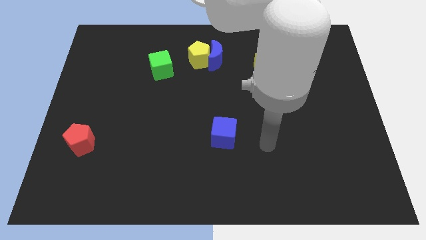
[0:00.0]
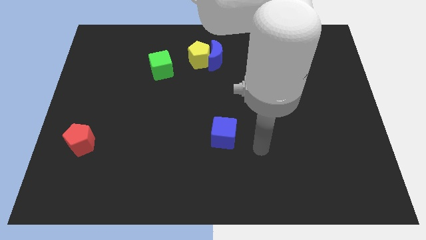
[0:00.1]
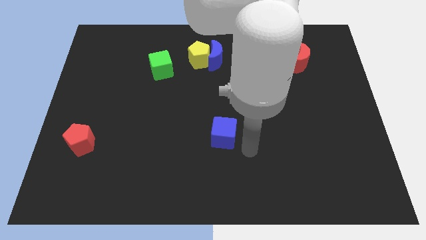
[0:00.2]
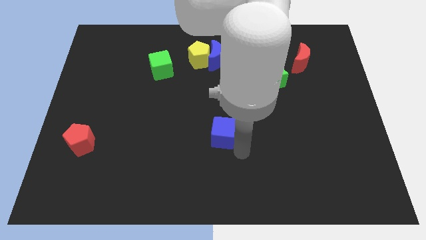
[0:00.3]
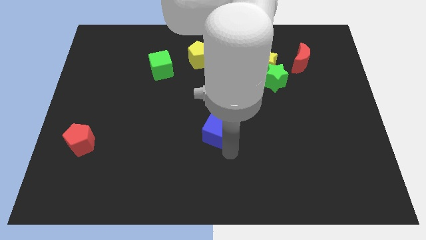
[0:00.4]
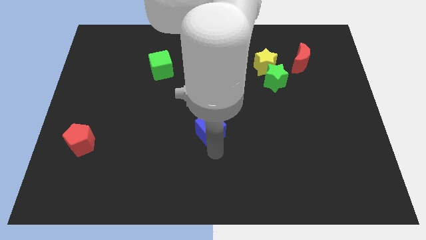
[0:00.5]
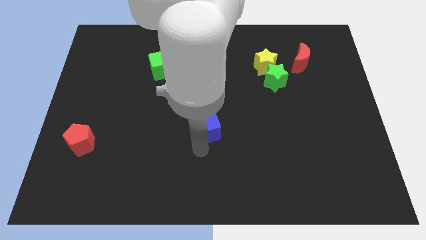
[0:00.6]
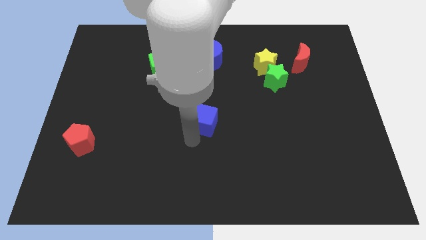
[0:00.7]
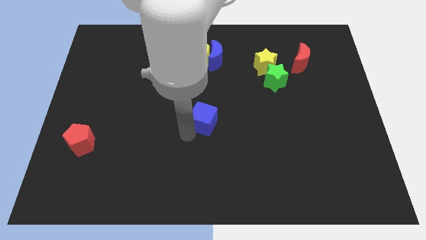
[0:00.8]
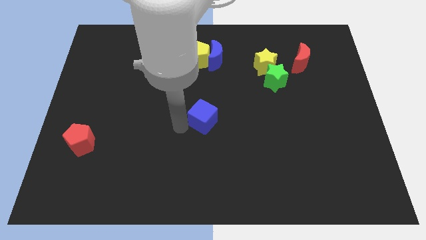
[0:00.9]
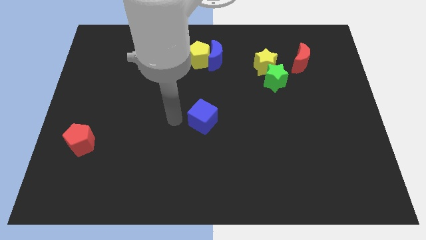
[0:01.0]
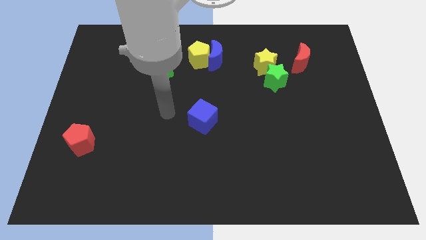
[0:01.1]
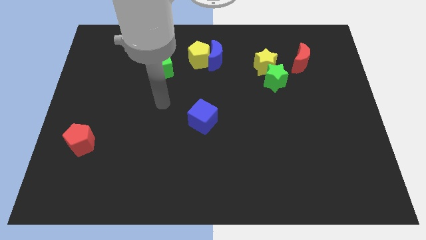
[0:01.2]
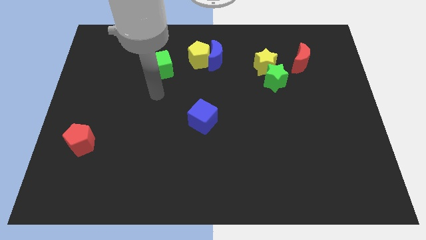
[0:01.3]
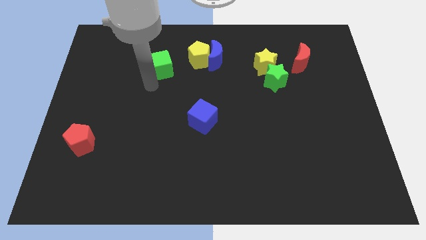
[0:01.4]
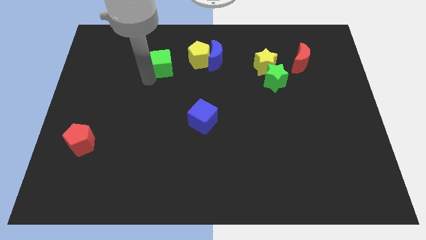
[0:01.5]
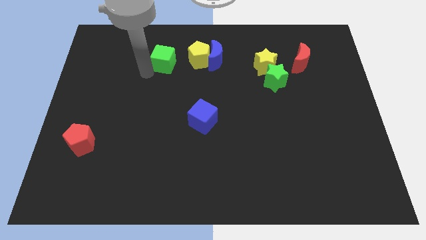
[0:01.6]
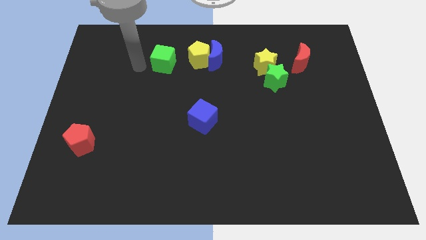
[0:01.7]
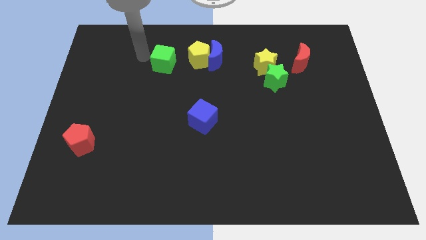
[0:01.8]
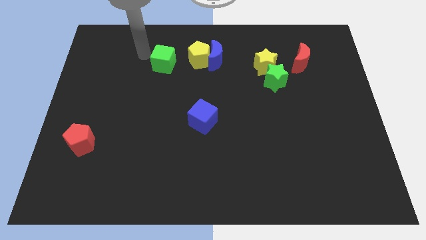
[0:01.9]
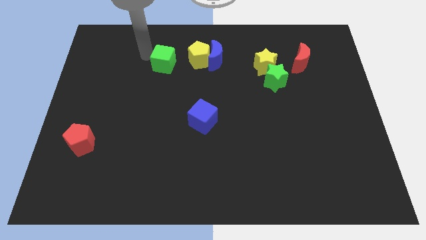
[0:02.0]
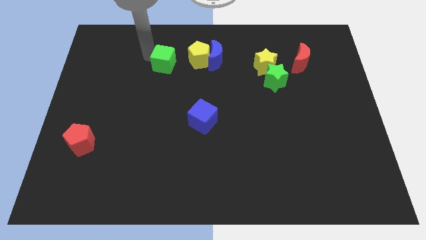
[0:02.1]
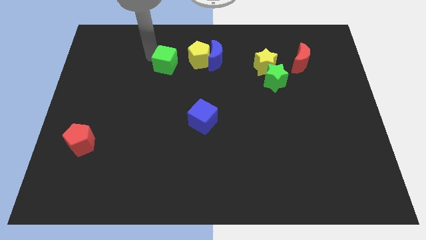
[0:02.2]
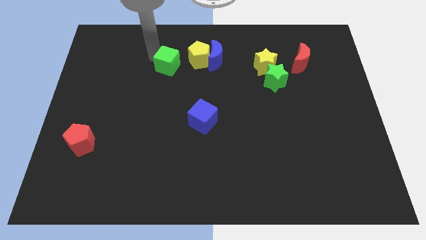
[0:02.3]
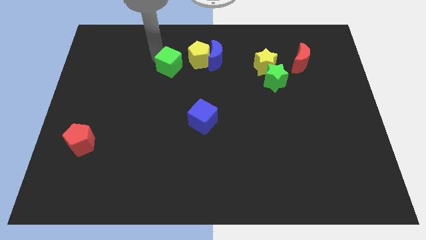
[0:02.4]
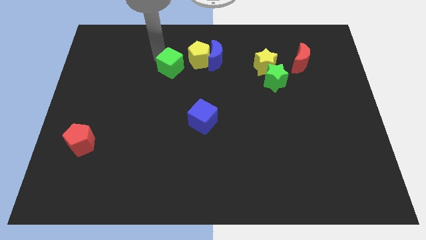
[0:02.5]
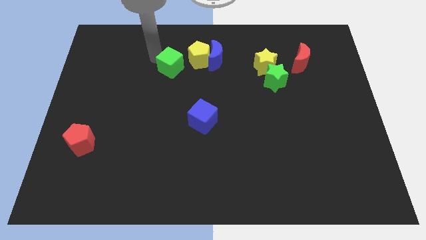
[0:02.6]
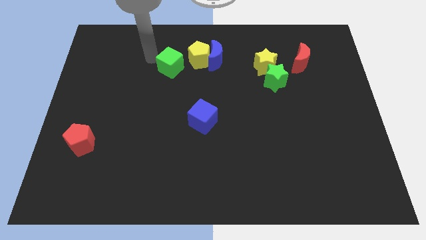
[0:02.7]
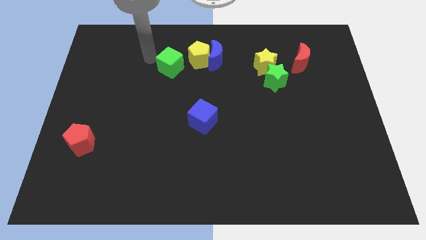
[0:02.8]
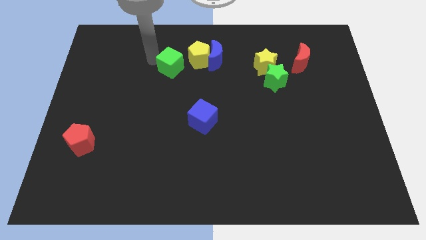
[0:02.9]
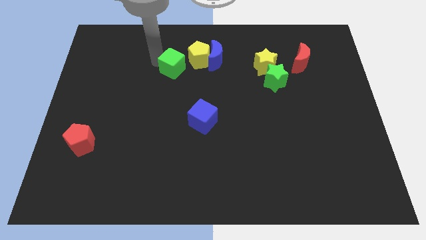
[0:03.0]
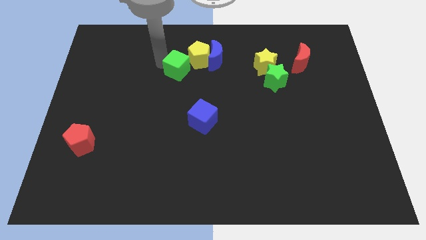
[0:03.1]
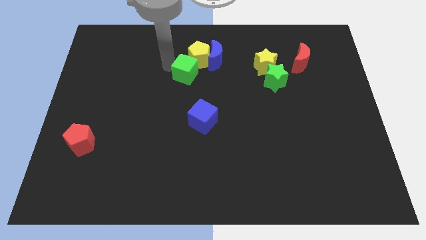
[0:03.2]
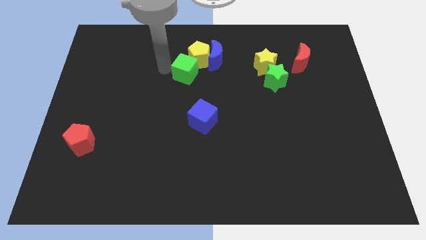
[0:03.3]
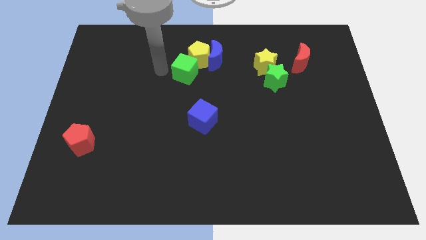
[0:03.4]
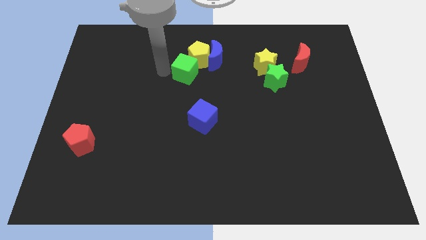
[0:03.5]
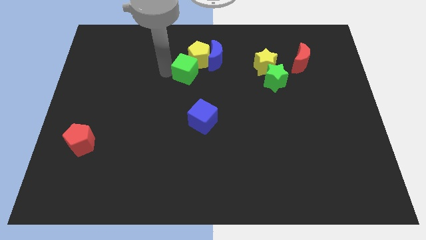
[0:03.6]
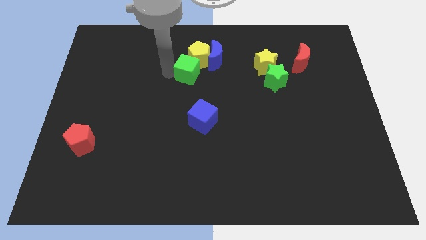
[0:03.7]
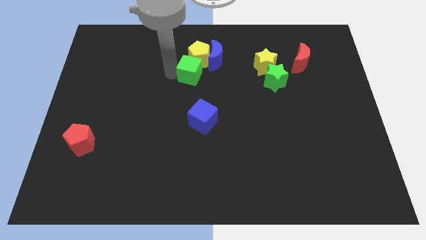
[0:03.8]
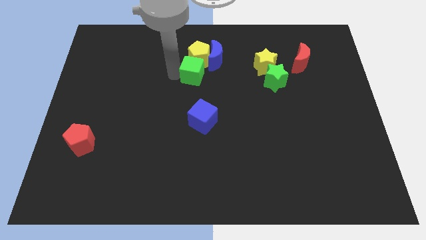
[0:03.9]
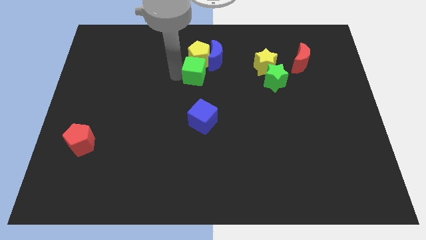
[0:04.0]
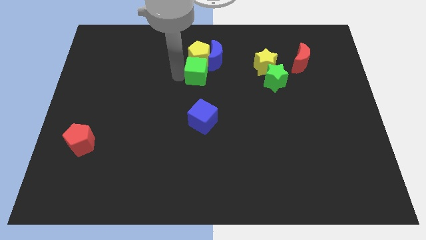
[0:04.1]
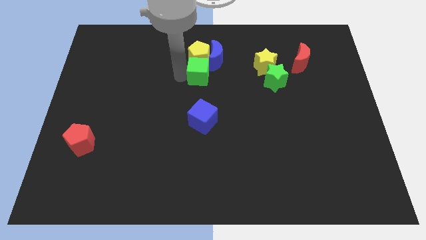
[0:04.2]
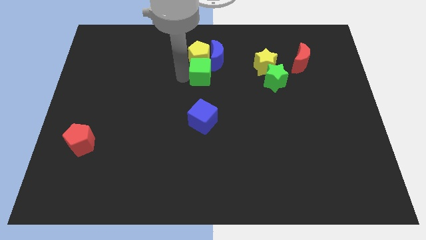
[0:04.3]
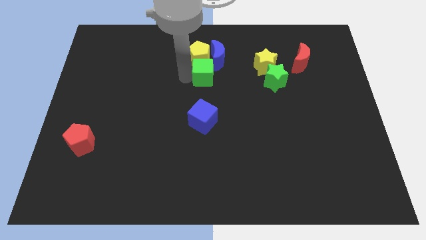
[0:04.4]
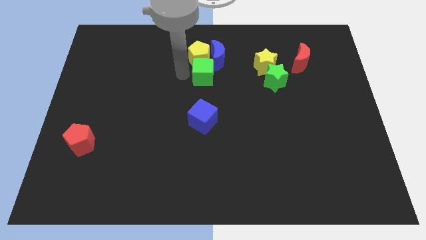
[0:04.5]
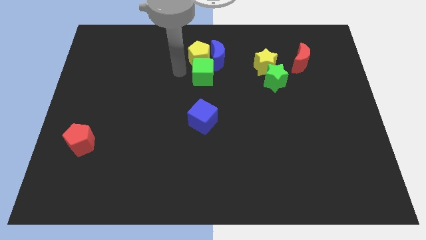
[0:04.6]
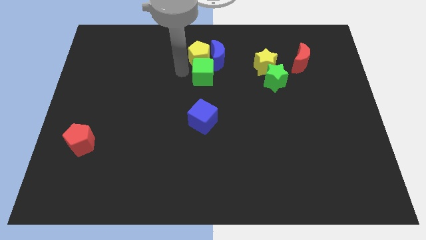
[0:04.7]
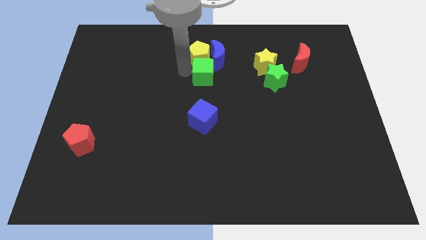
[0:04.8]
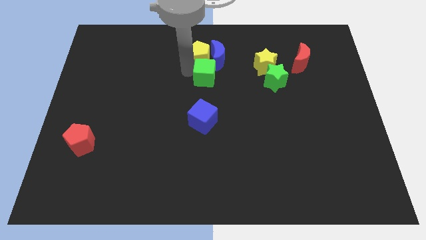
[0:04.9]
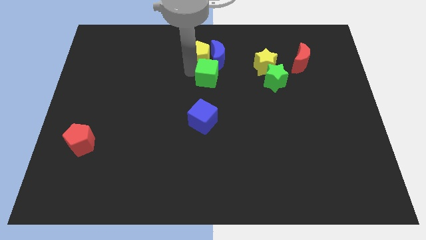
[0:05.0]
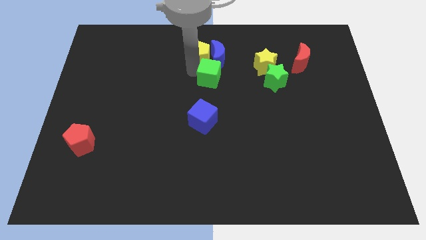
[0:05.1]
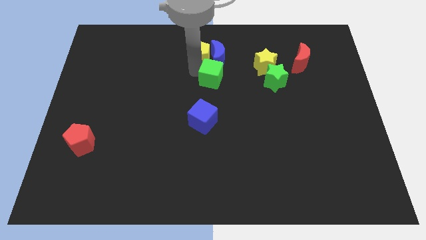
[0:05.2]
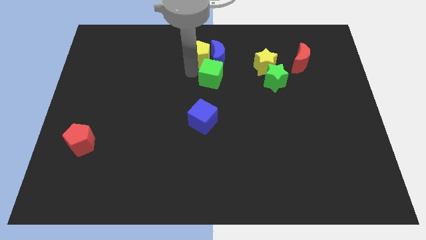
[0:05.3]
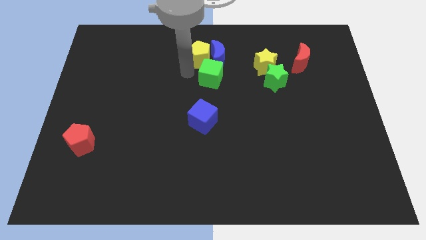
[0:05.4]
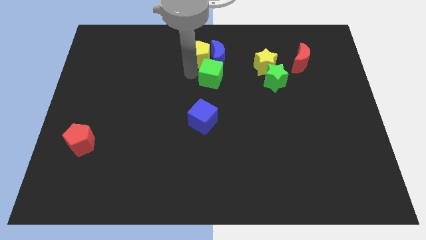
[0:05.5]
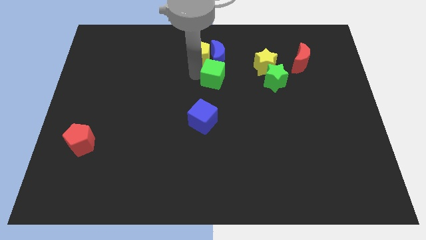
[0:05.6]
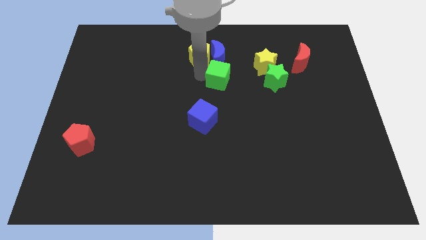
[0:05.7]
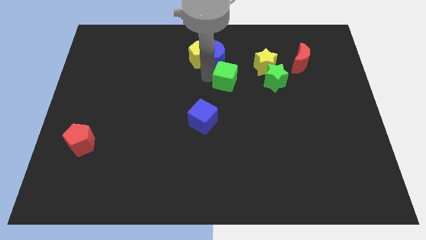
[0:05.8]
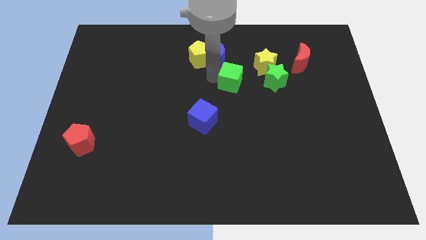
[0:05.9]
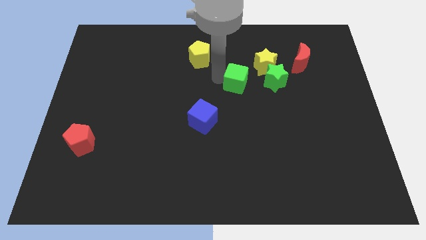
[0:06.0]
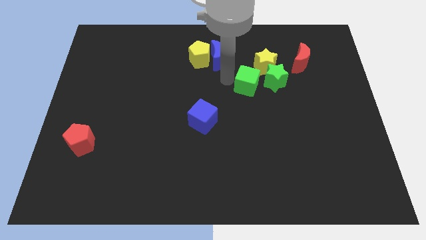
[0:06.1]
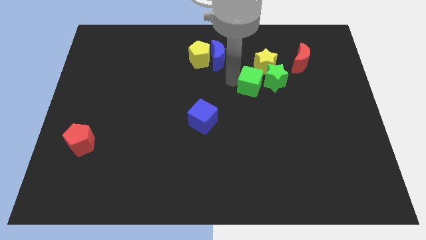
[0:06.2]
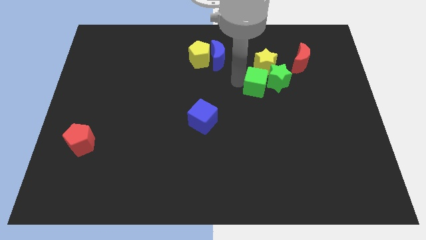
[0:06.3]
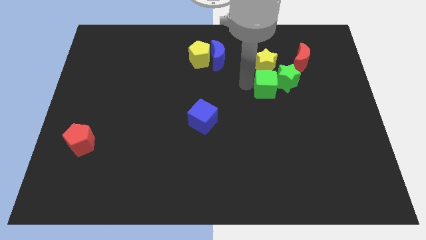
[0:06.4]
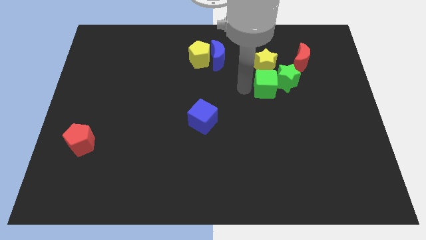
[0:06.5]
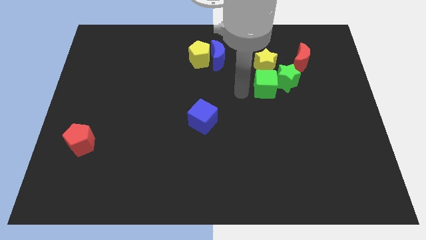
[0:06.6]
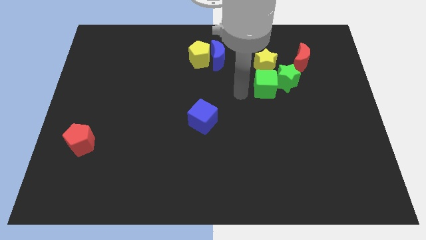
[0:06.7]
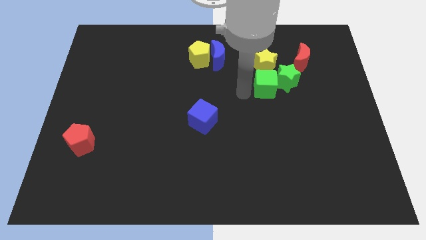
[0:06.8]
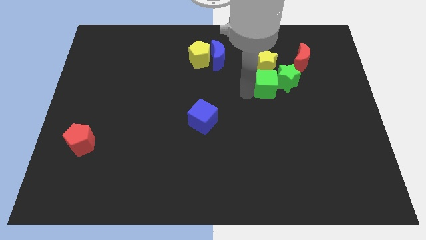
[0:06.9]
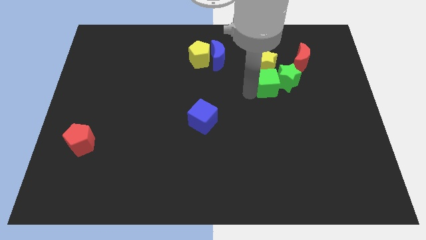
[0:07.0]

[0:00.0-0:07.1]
push the green cube to the bottom right side of the yellow star
